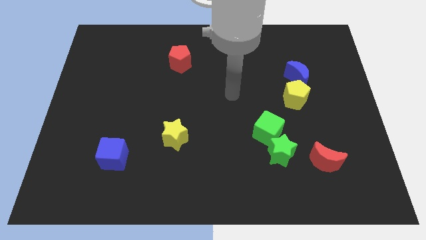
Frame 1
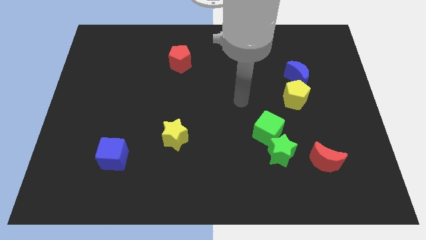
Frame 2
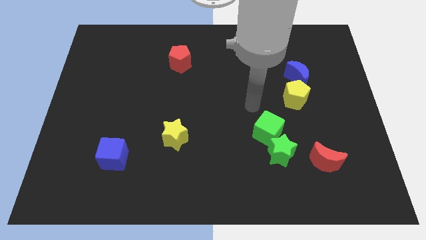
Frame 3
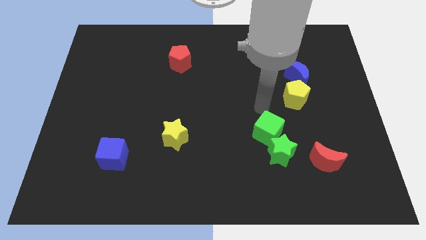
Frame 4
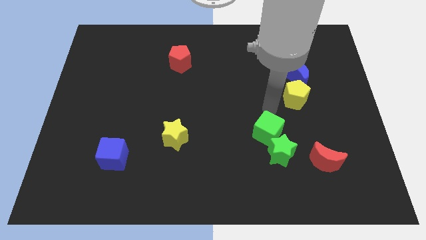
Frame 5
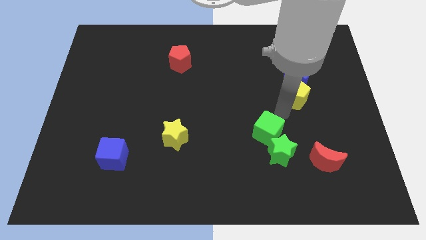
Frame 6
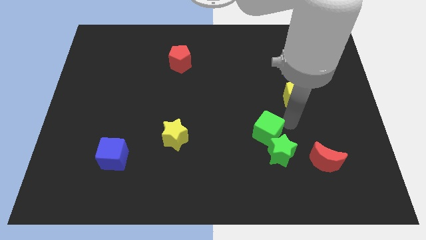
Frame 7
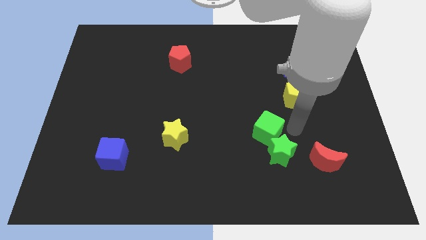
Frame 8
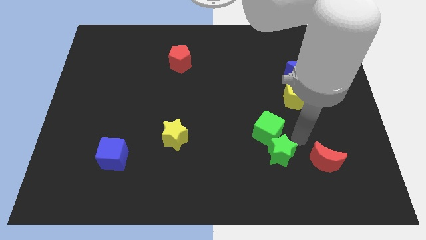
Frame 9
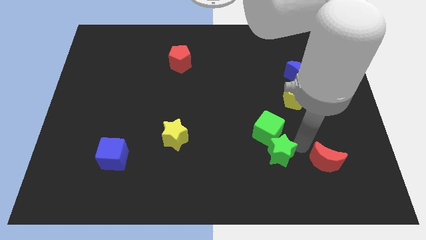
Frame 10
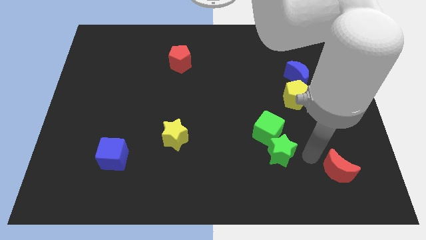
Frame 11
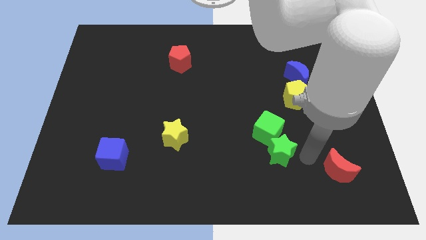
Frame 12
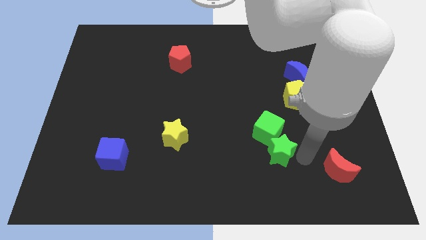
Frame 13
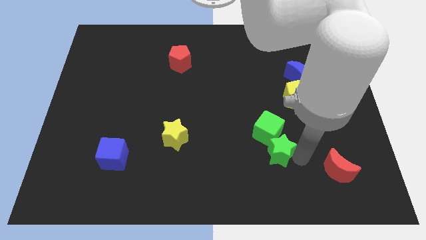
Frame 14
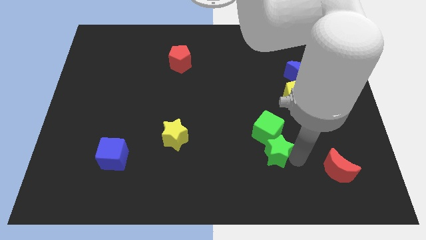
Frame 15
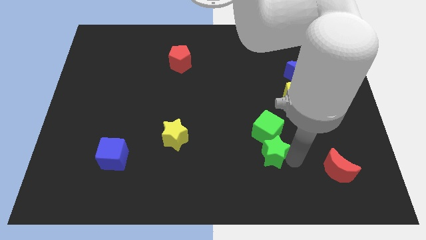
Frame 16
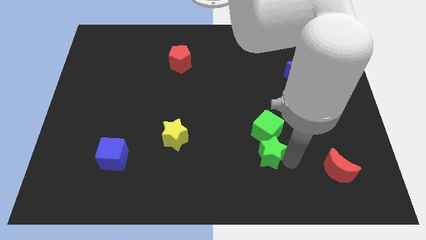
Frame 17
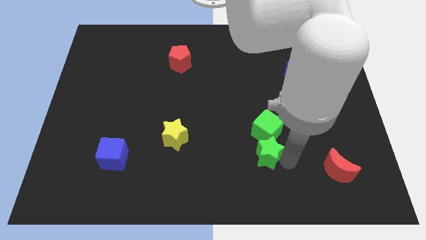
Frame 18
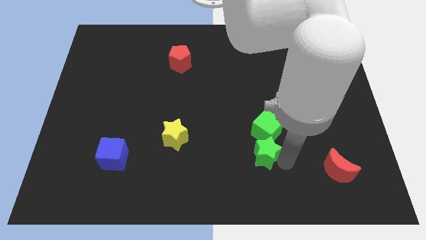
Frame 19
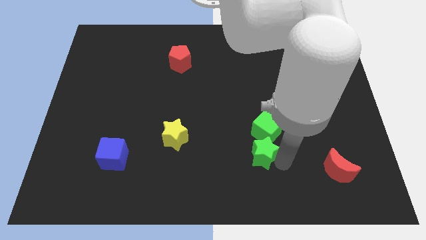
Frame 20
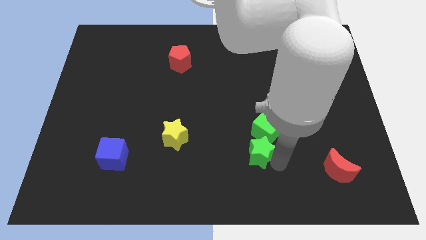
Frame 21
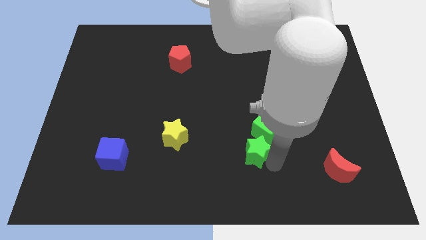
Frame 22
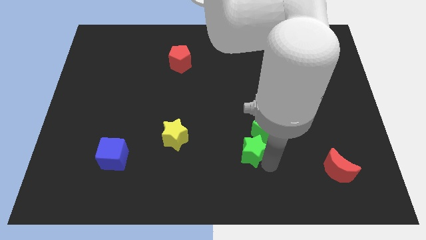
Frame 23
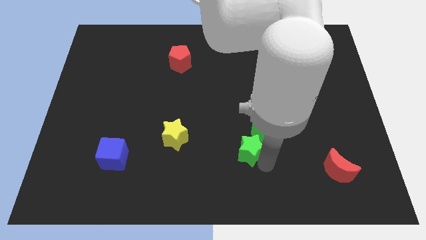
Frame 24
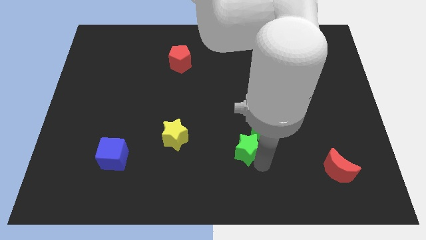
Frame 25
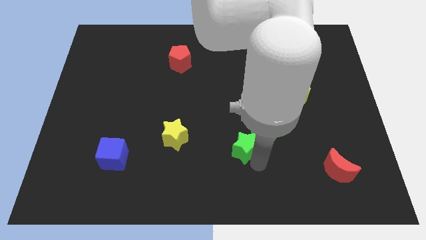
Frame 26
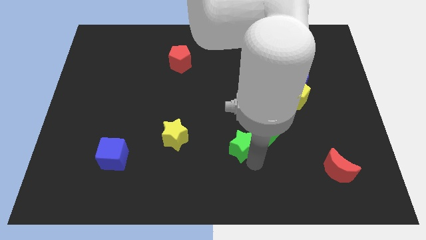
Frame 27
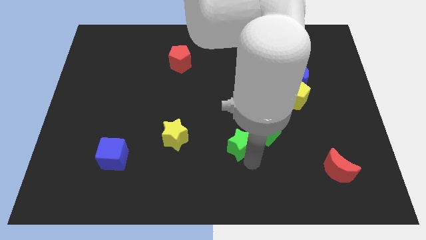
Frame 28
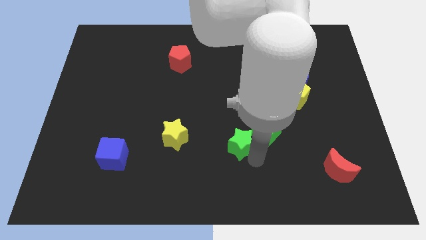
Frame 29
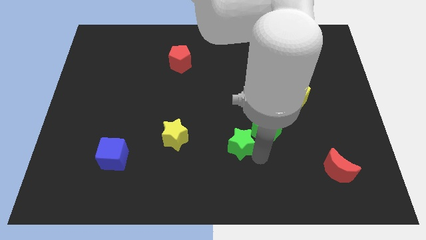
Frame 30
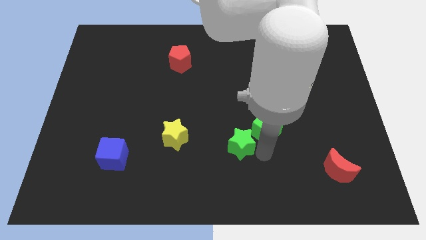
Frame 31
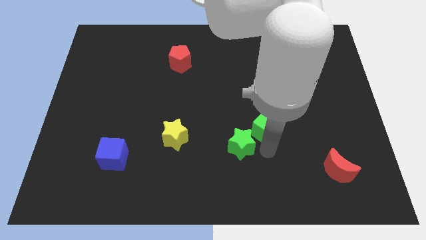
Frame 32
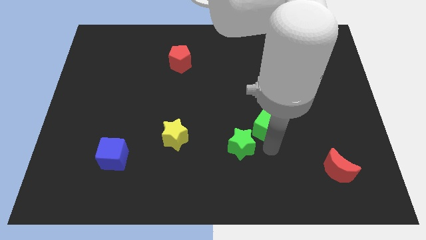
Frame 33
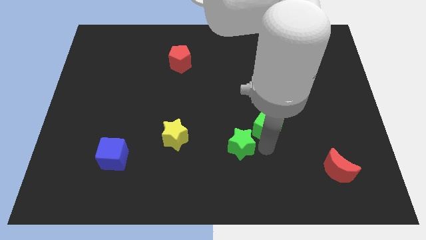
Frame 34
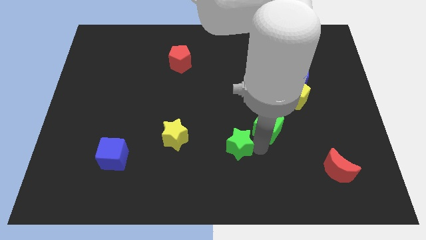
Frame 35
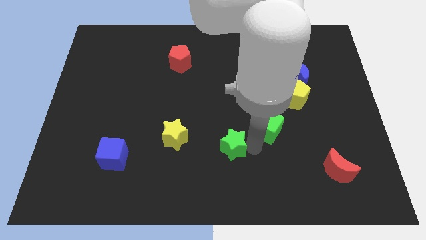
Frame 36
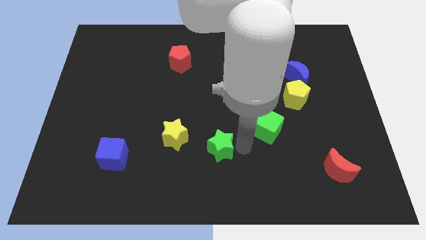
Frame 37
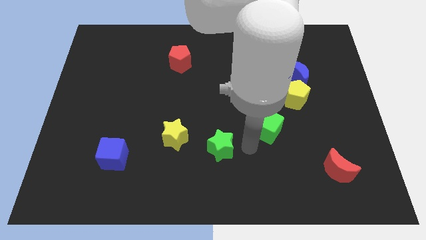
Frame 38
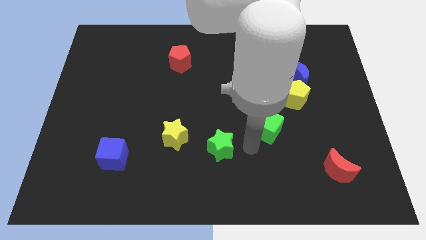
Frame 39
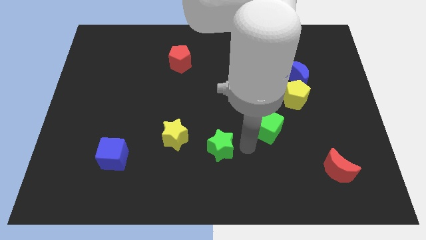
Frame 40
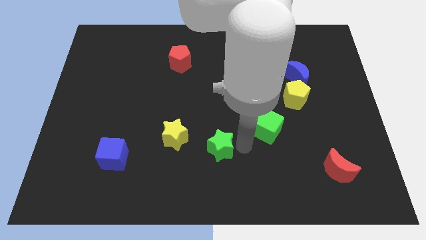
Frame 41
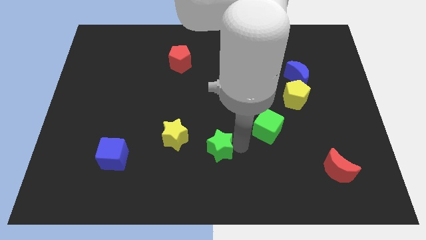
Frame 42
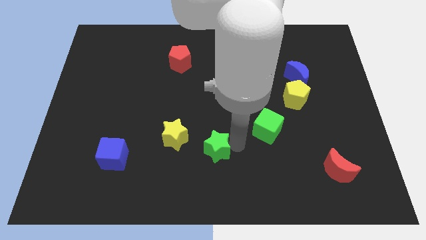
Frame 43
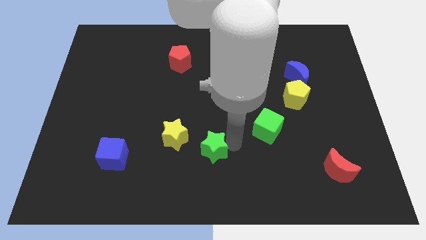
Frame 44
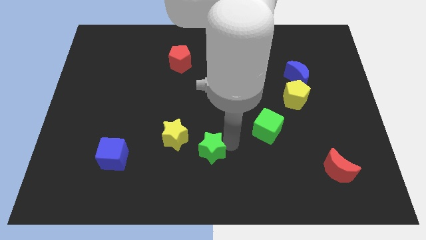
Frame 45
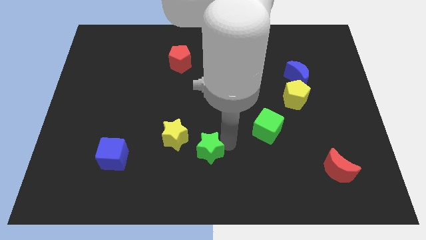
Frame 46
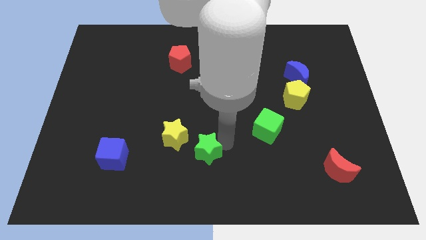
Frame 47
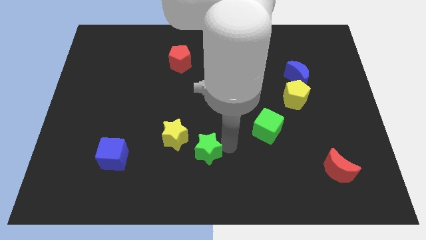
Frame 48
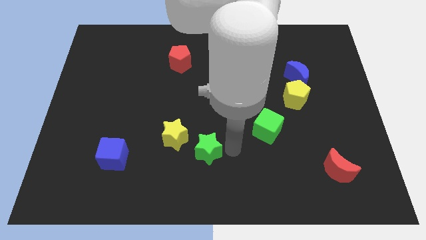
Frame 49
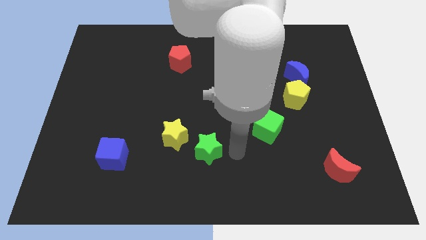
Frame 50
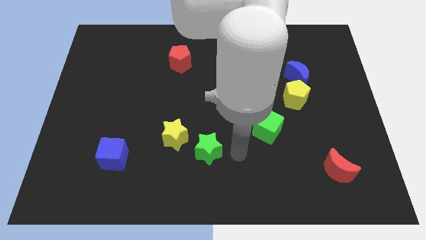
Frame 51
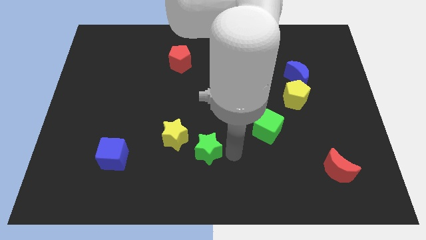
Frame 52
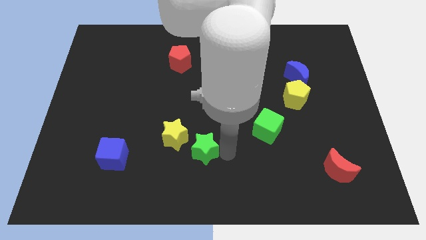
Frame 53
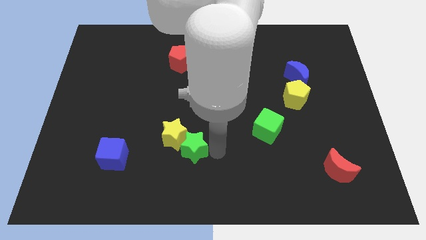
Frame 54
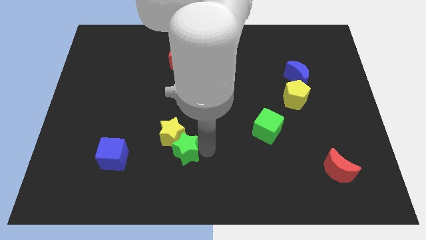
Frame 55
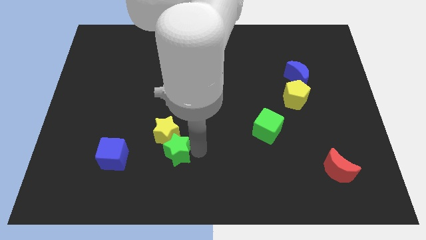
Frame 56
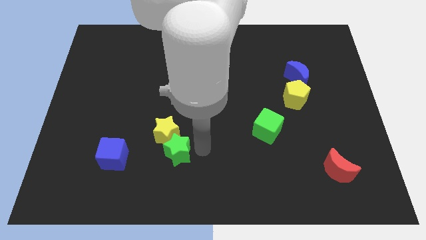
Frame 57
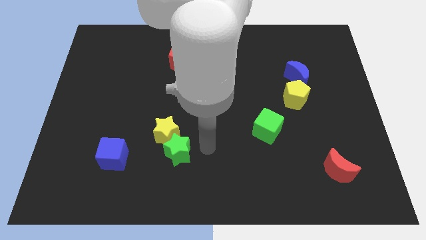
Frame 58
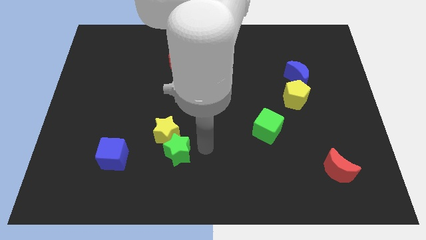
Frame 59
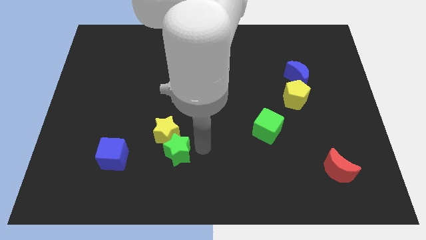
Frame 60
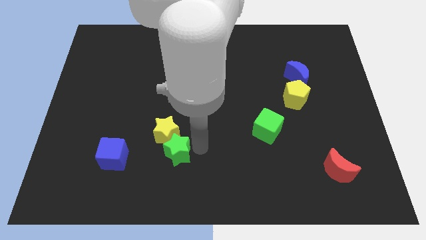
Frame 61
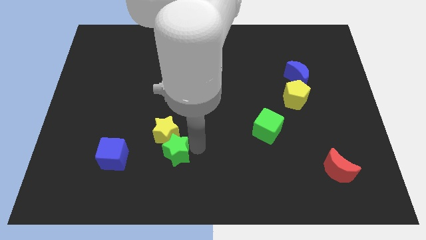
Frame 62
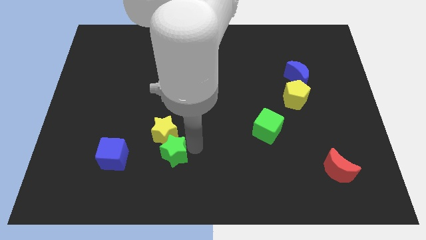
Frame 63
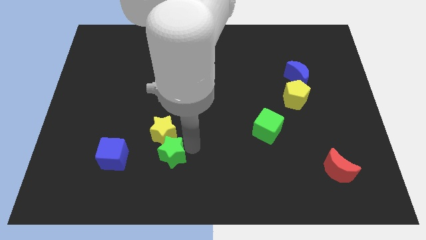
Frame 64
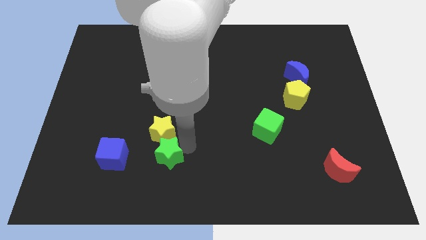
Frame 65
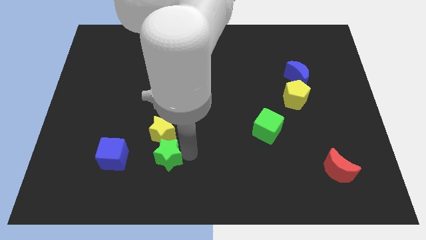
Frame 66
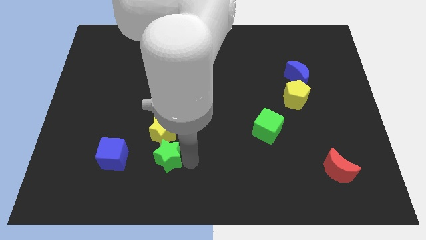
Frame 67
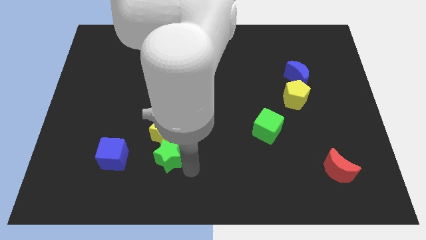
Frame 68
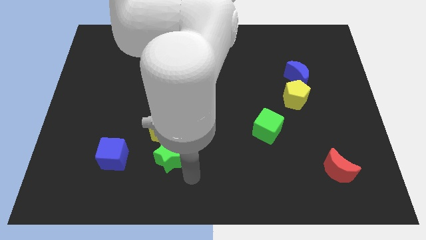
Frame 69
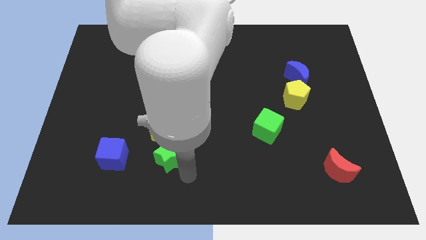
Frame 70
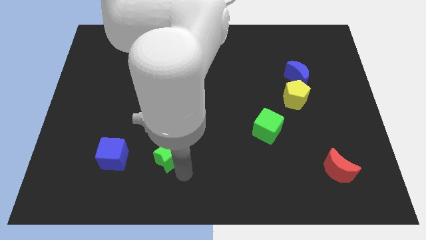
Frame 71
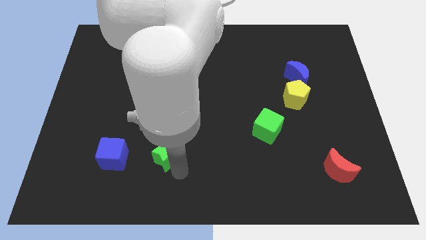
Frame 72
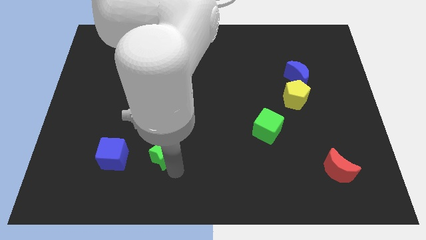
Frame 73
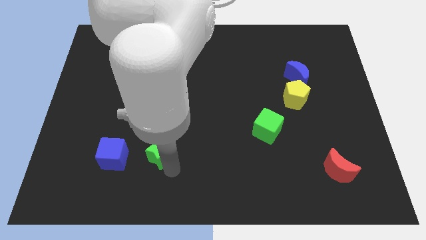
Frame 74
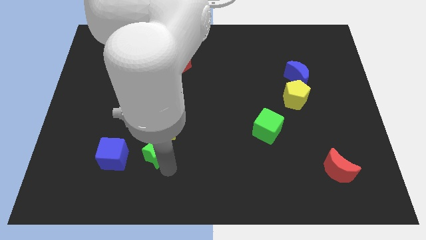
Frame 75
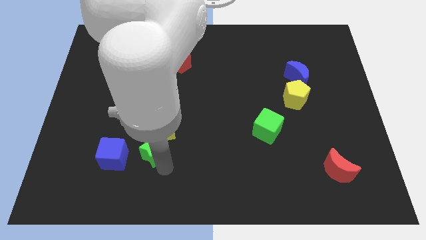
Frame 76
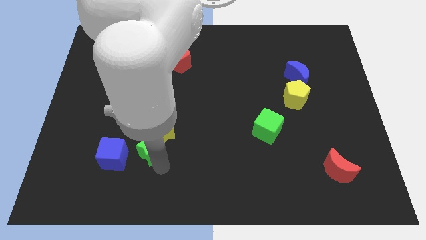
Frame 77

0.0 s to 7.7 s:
move the green star to the top right of the blue cube

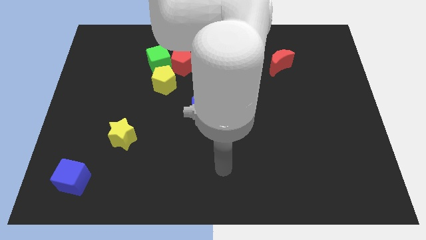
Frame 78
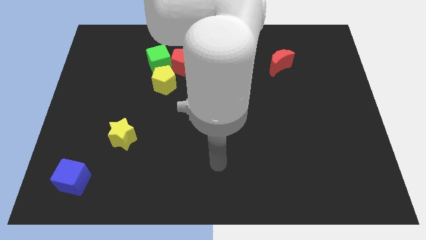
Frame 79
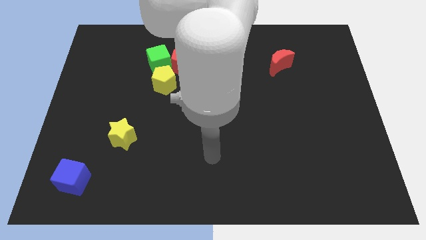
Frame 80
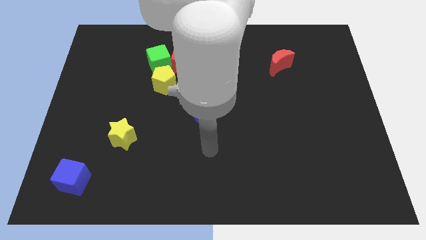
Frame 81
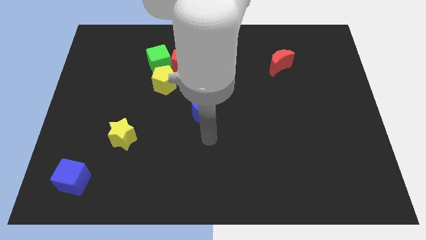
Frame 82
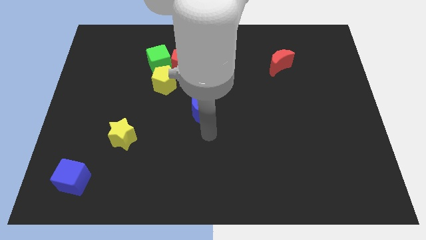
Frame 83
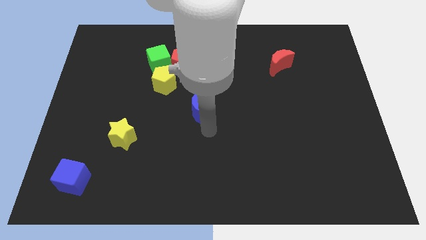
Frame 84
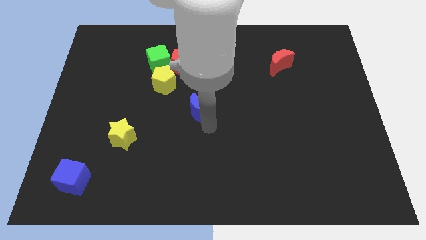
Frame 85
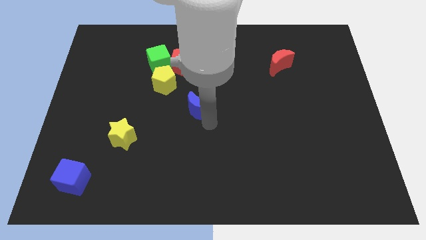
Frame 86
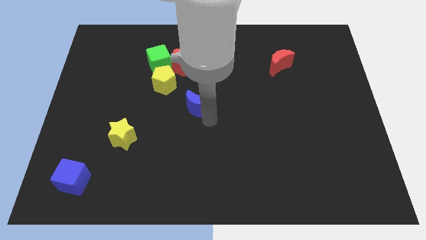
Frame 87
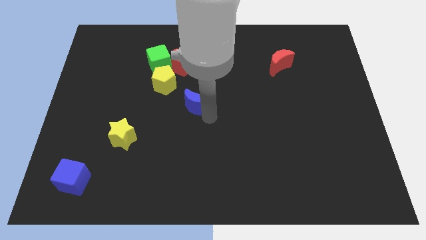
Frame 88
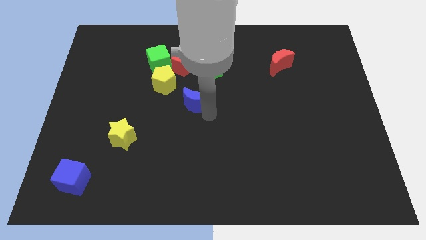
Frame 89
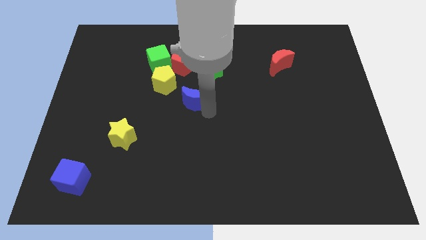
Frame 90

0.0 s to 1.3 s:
push the blue moon to the bottom left side of the green star
